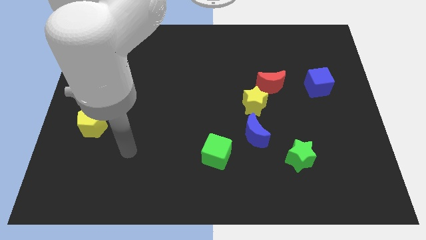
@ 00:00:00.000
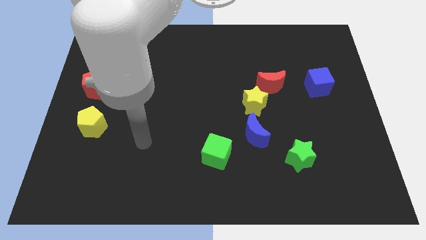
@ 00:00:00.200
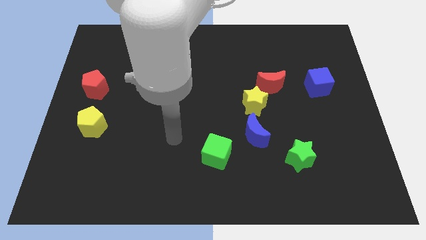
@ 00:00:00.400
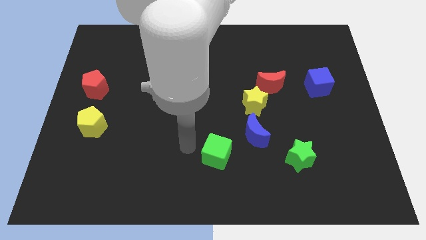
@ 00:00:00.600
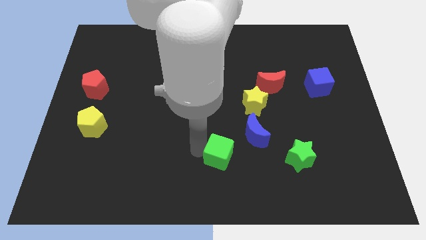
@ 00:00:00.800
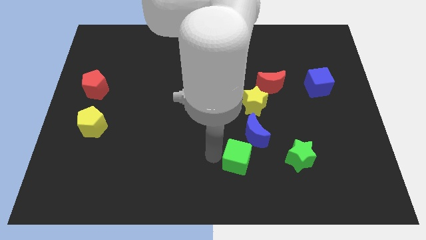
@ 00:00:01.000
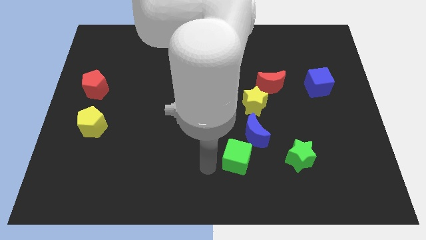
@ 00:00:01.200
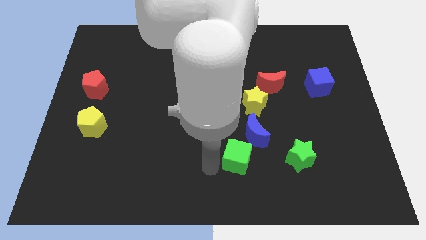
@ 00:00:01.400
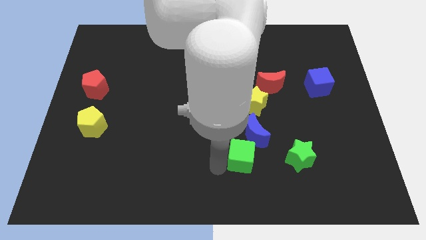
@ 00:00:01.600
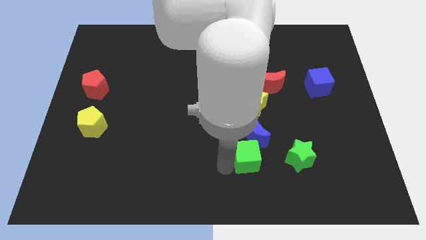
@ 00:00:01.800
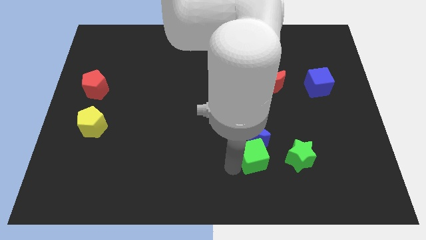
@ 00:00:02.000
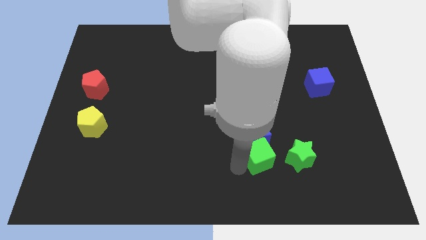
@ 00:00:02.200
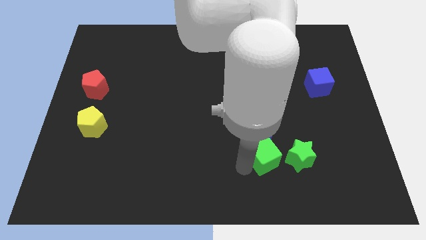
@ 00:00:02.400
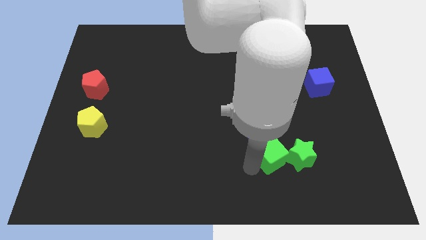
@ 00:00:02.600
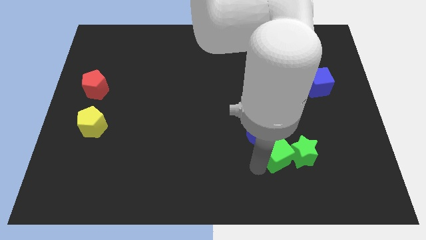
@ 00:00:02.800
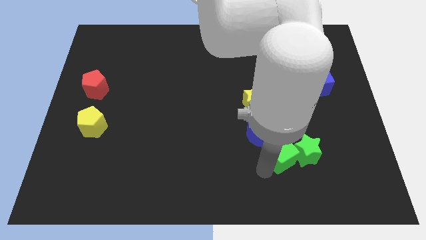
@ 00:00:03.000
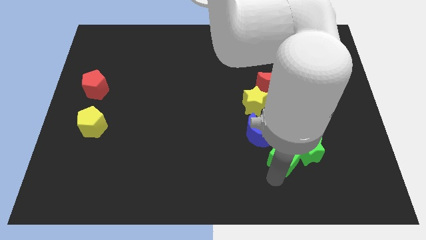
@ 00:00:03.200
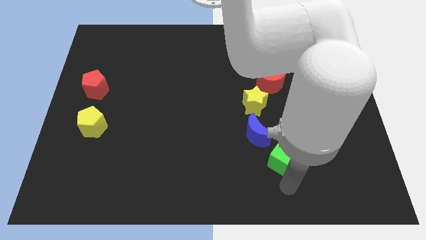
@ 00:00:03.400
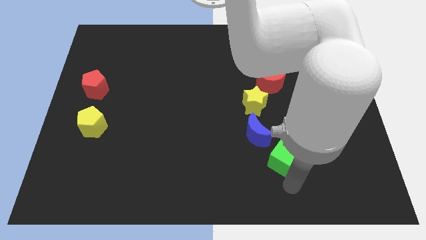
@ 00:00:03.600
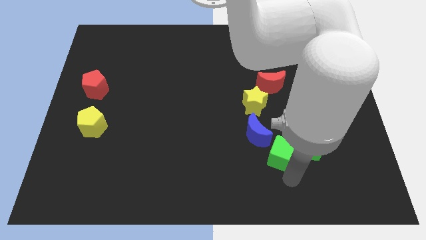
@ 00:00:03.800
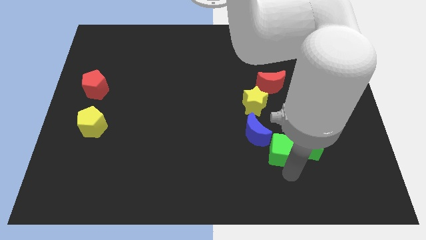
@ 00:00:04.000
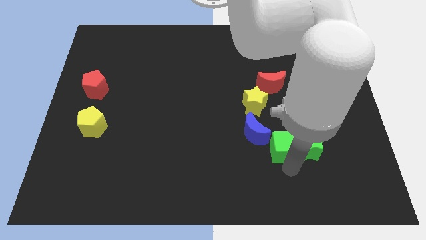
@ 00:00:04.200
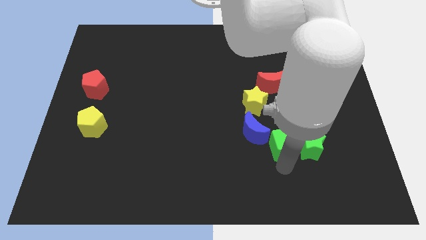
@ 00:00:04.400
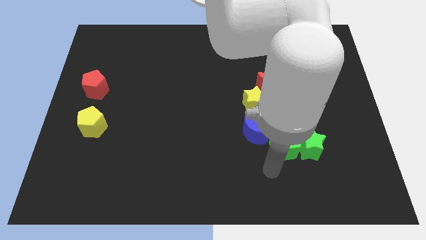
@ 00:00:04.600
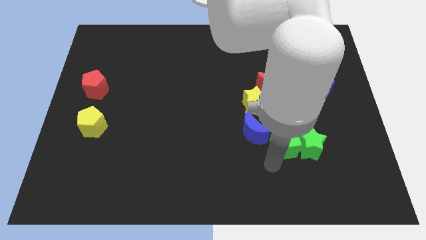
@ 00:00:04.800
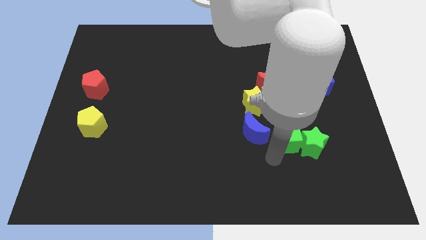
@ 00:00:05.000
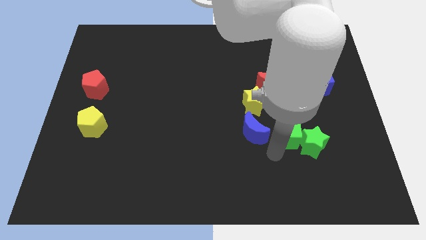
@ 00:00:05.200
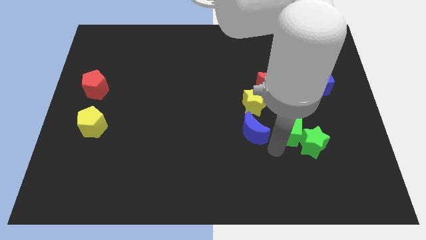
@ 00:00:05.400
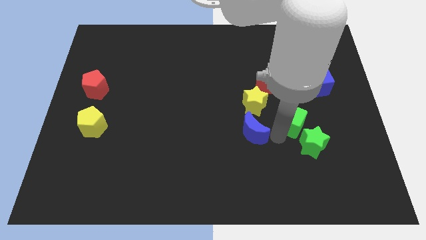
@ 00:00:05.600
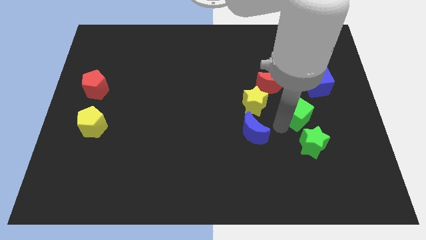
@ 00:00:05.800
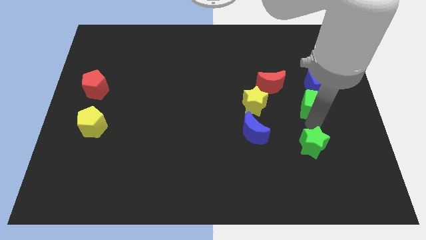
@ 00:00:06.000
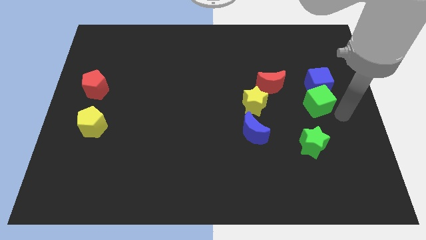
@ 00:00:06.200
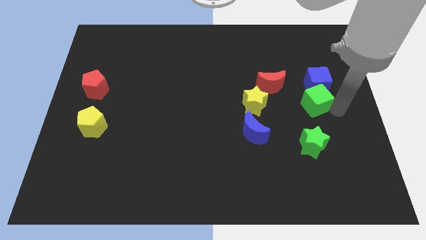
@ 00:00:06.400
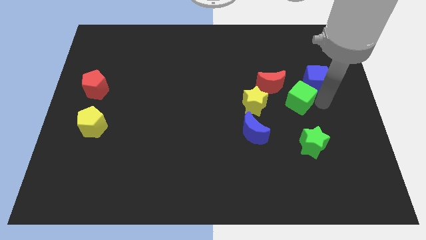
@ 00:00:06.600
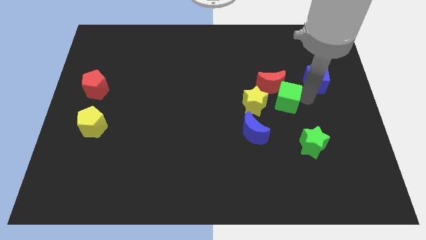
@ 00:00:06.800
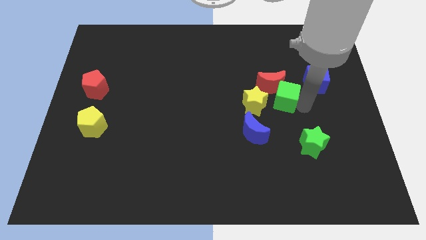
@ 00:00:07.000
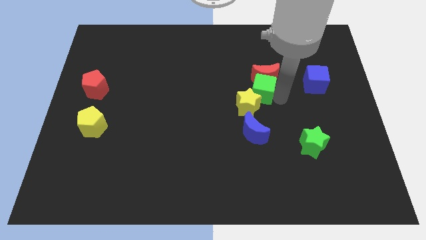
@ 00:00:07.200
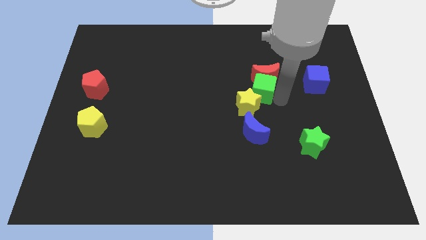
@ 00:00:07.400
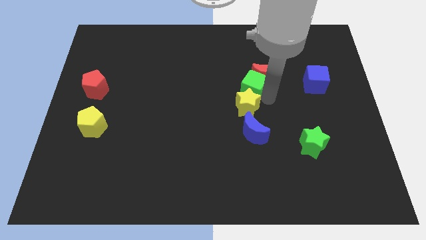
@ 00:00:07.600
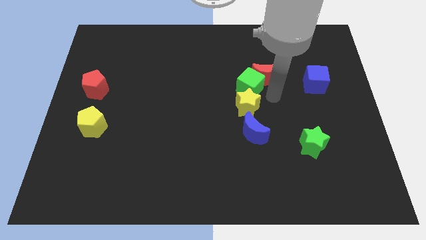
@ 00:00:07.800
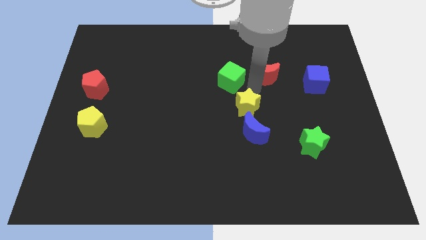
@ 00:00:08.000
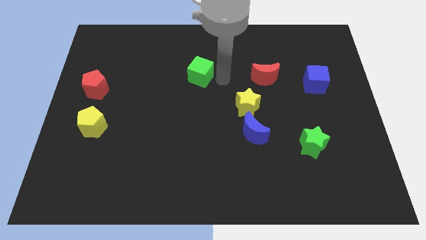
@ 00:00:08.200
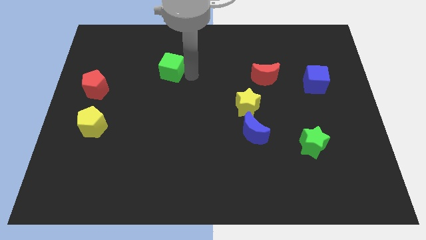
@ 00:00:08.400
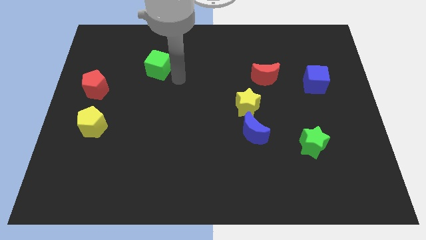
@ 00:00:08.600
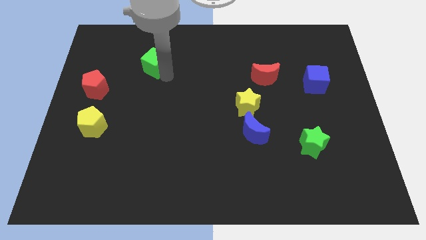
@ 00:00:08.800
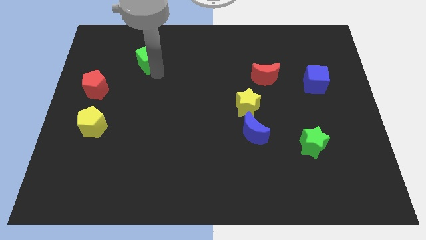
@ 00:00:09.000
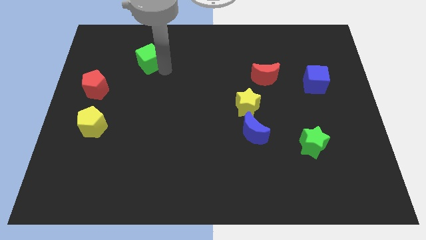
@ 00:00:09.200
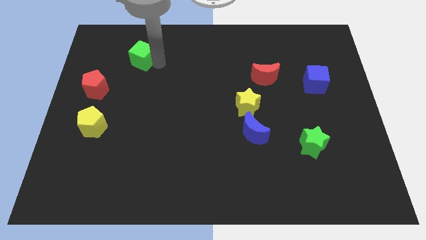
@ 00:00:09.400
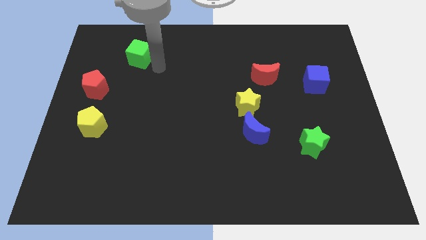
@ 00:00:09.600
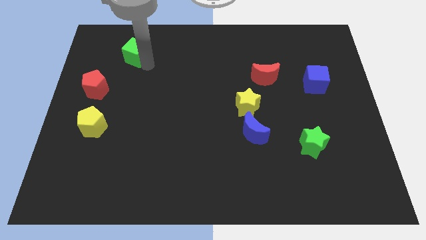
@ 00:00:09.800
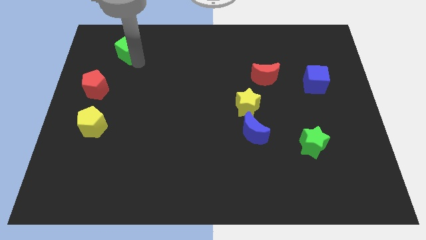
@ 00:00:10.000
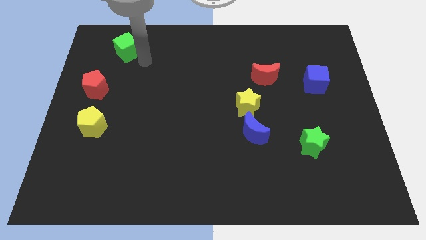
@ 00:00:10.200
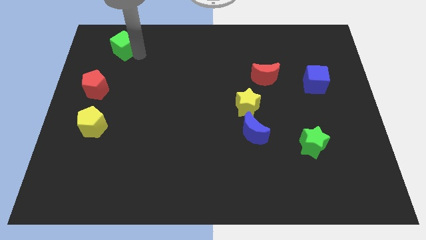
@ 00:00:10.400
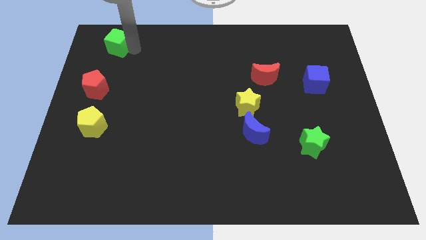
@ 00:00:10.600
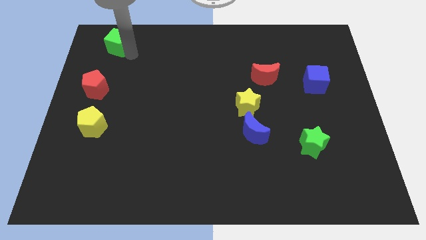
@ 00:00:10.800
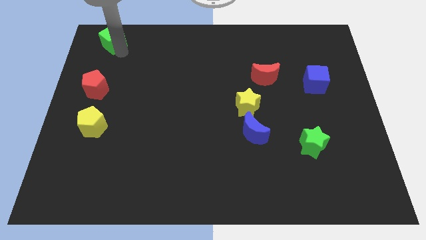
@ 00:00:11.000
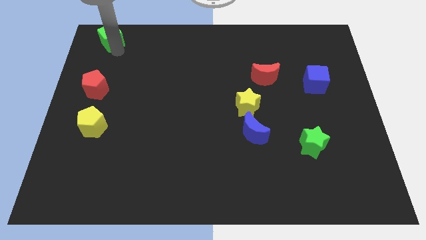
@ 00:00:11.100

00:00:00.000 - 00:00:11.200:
push the green cube to the top left corner

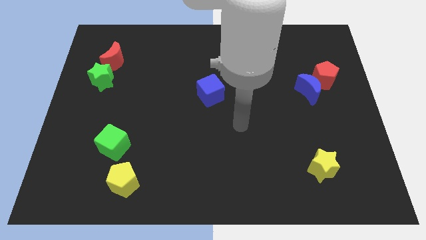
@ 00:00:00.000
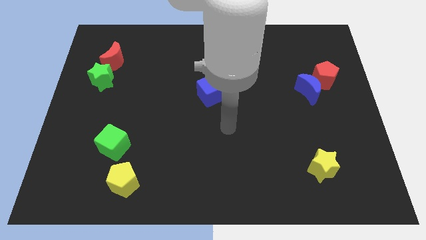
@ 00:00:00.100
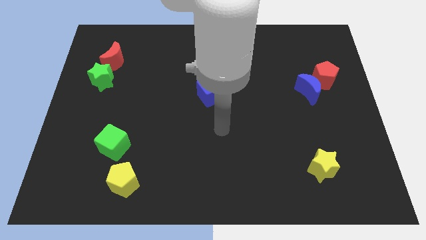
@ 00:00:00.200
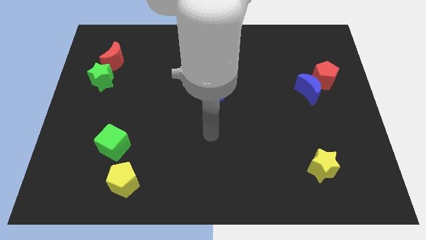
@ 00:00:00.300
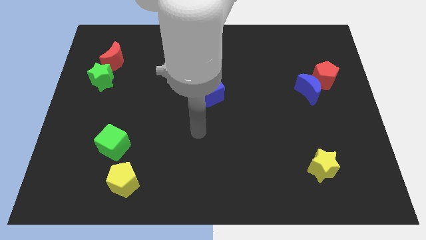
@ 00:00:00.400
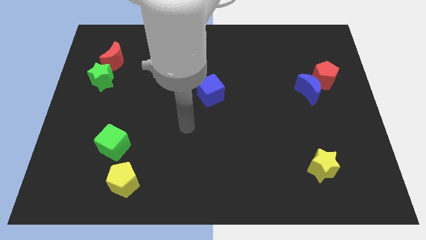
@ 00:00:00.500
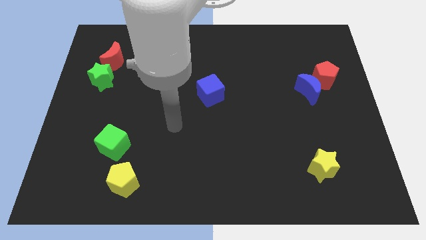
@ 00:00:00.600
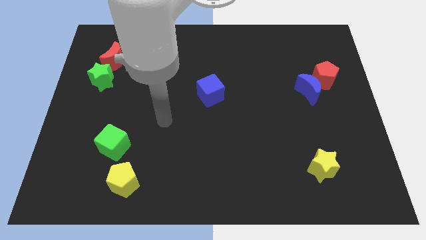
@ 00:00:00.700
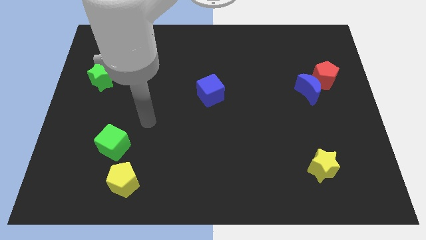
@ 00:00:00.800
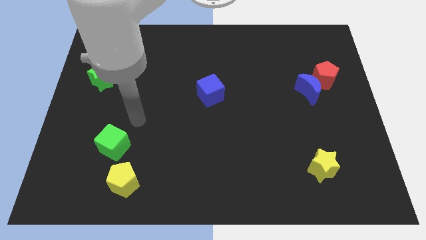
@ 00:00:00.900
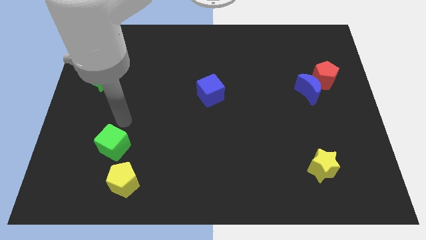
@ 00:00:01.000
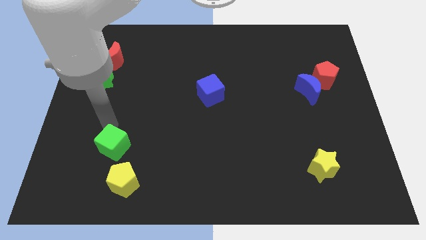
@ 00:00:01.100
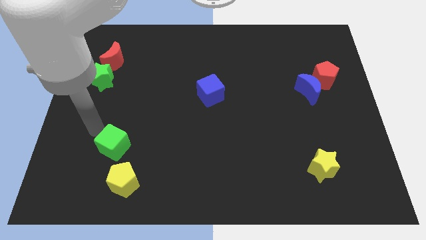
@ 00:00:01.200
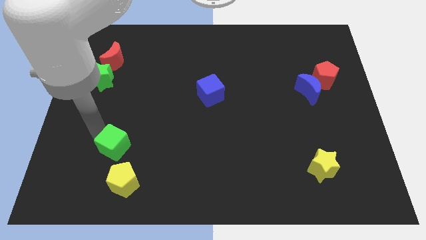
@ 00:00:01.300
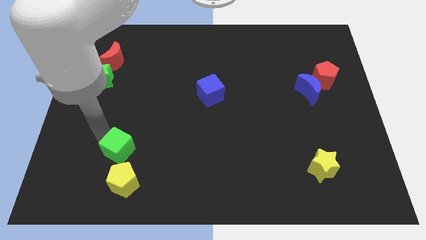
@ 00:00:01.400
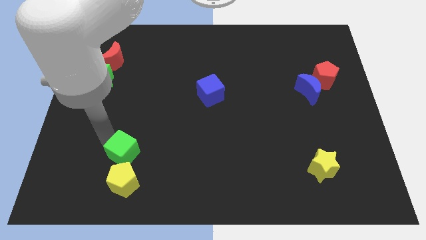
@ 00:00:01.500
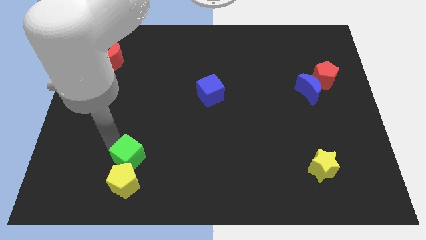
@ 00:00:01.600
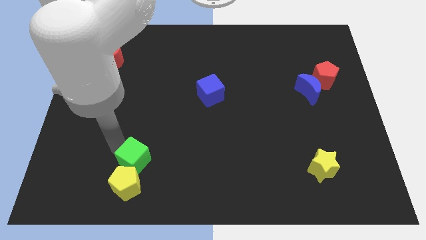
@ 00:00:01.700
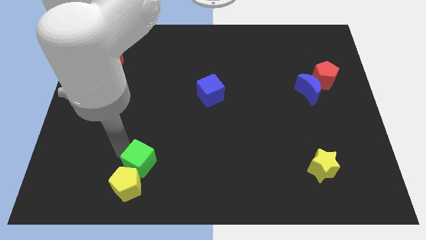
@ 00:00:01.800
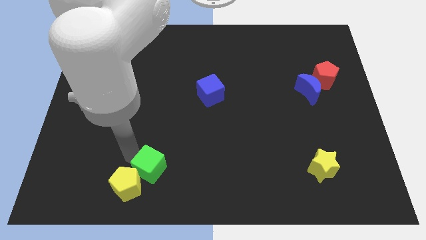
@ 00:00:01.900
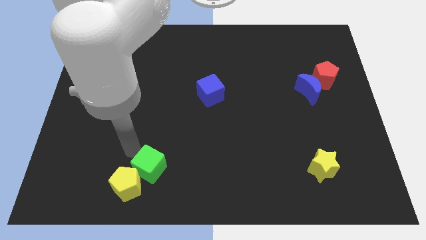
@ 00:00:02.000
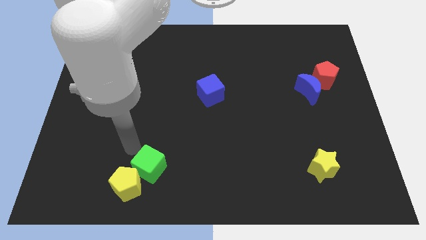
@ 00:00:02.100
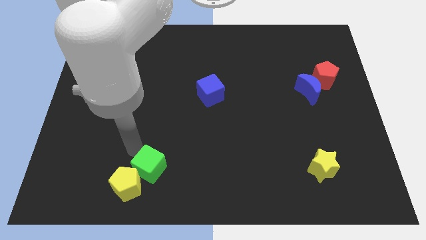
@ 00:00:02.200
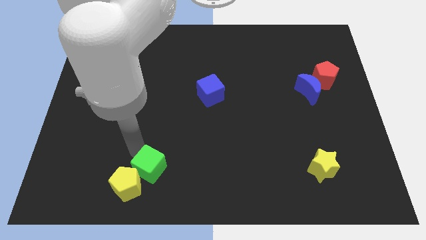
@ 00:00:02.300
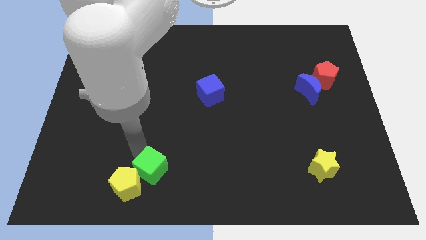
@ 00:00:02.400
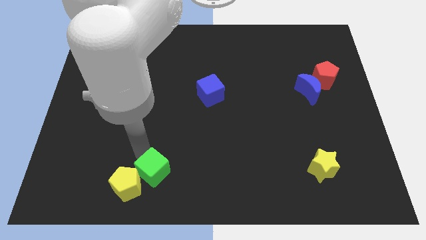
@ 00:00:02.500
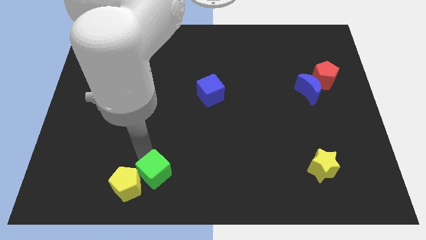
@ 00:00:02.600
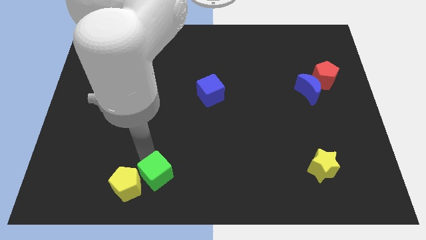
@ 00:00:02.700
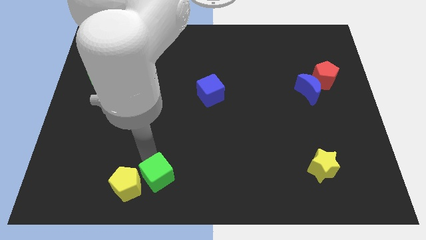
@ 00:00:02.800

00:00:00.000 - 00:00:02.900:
move the green cube to the bottom
